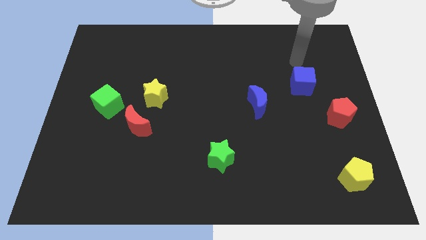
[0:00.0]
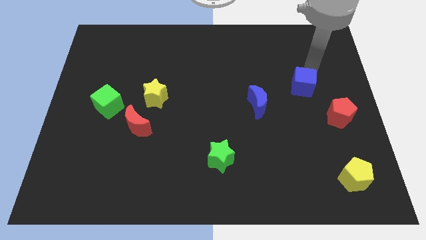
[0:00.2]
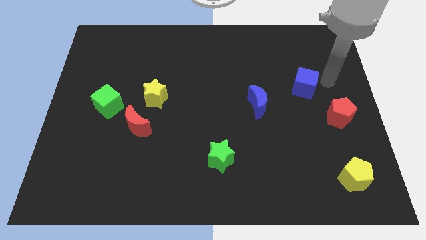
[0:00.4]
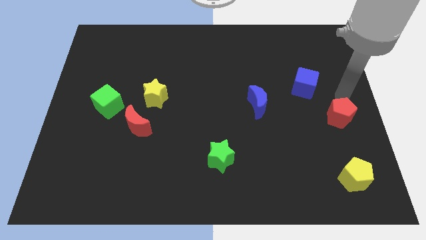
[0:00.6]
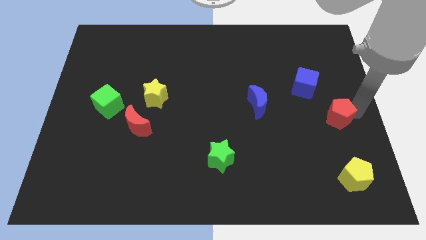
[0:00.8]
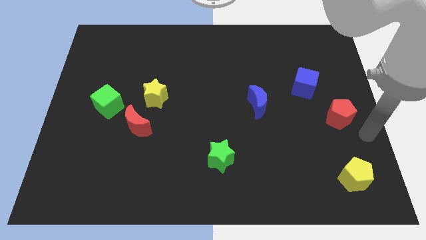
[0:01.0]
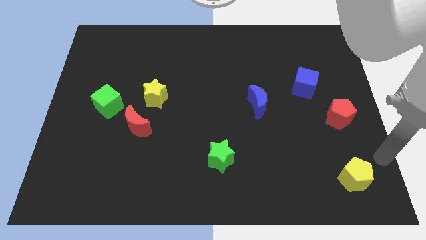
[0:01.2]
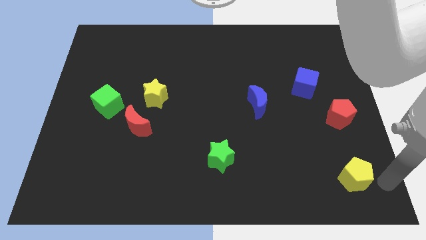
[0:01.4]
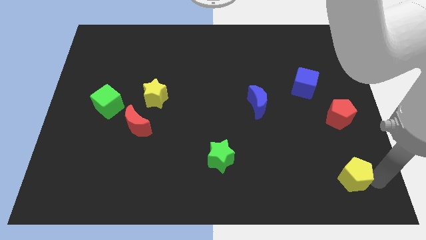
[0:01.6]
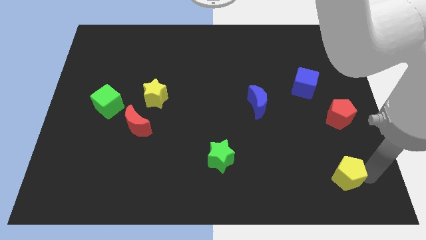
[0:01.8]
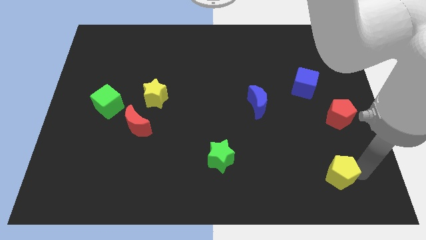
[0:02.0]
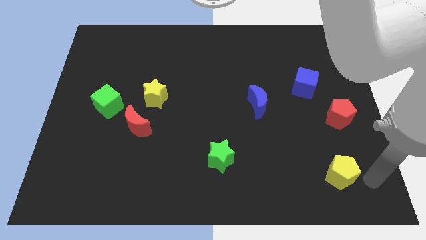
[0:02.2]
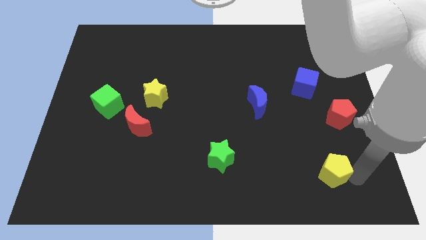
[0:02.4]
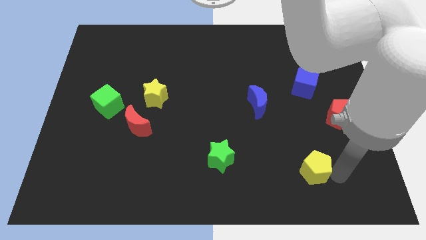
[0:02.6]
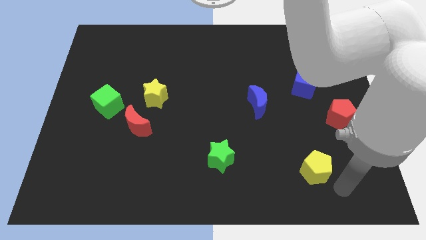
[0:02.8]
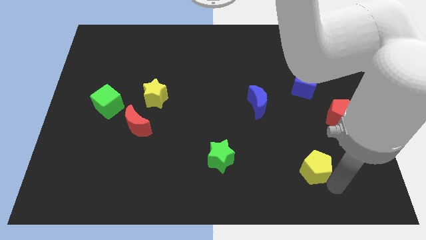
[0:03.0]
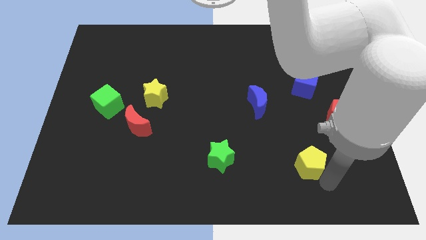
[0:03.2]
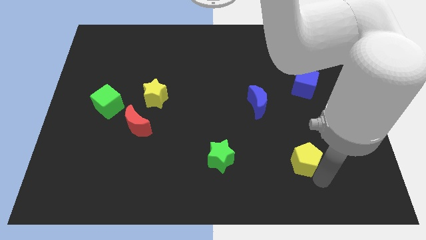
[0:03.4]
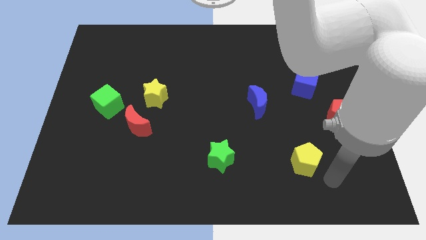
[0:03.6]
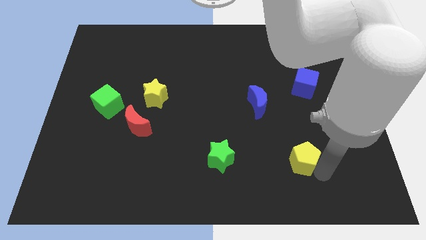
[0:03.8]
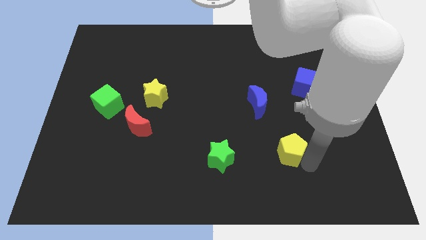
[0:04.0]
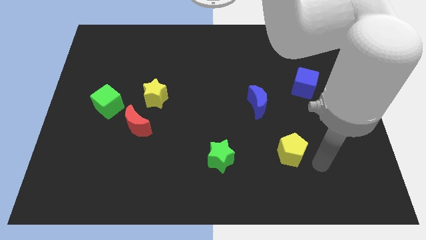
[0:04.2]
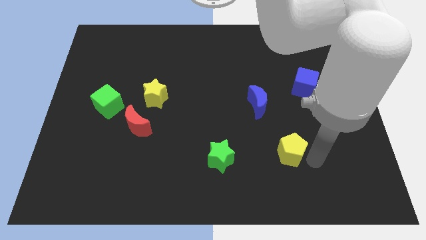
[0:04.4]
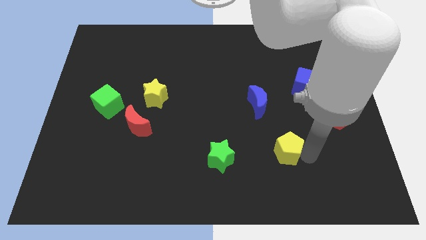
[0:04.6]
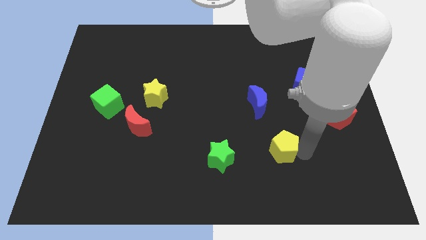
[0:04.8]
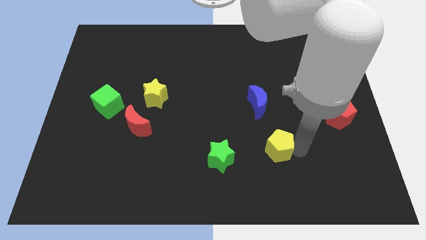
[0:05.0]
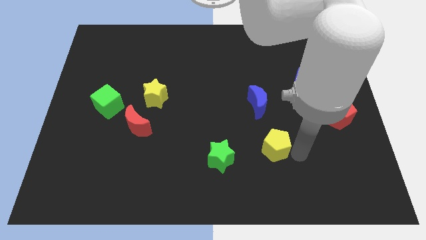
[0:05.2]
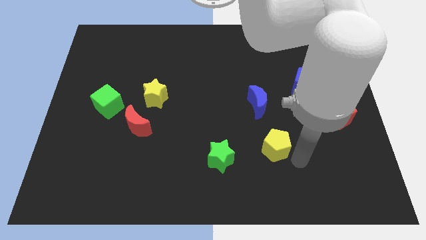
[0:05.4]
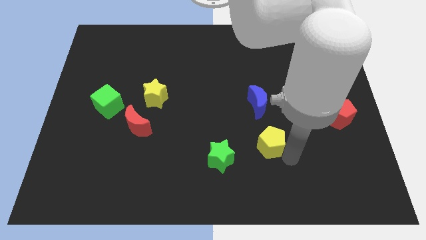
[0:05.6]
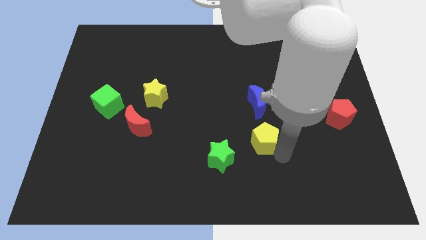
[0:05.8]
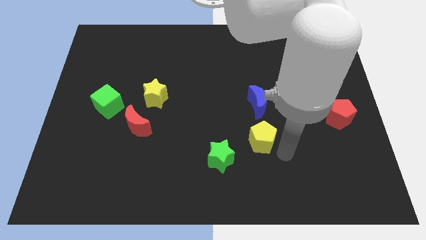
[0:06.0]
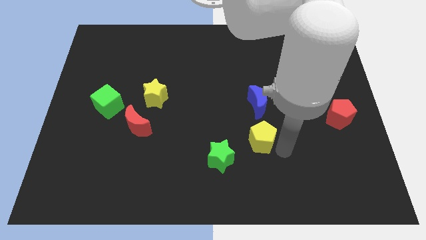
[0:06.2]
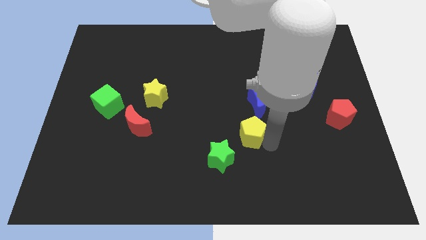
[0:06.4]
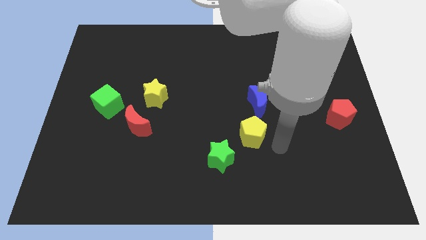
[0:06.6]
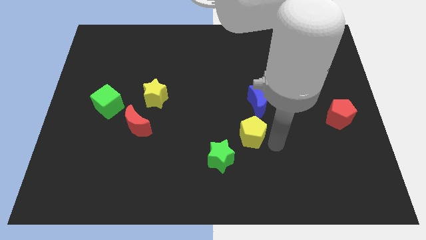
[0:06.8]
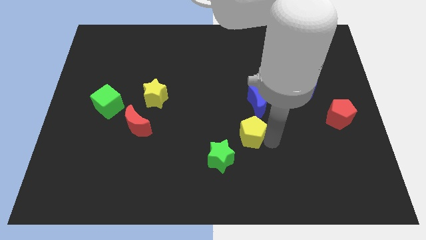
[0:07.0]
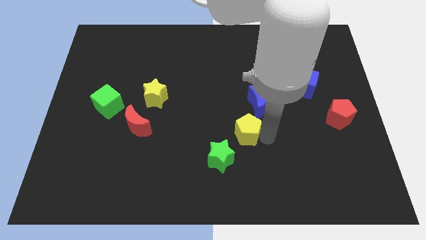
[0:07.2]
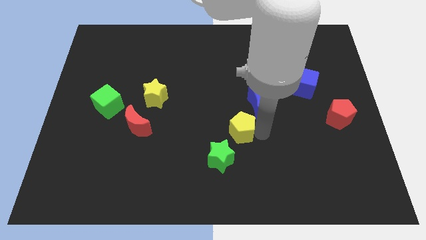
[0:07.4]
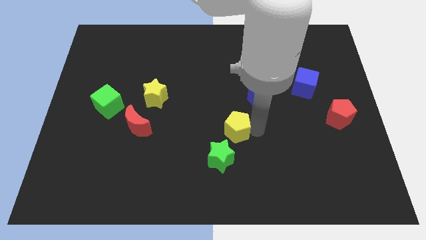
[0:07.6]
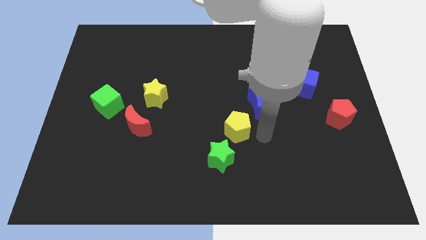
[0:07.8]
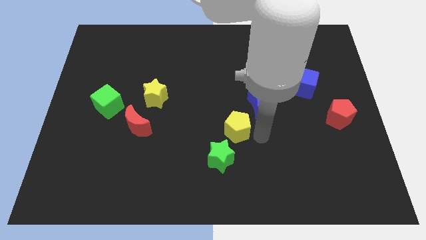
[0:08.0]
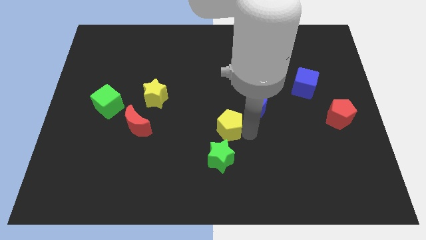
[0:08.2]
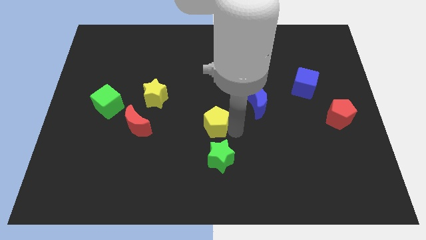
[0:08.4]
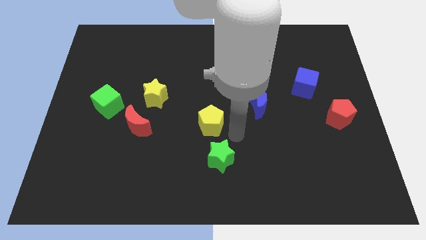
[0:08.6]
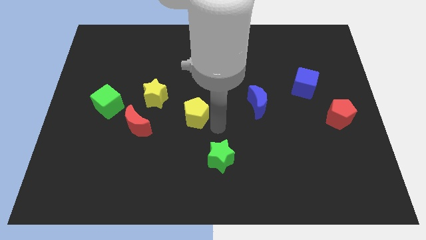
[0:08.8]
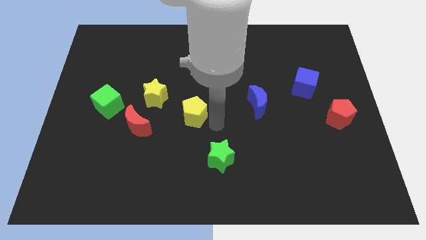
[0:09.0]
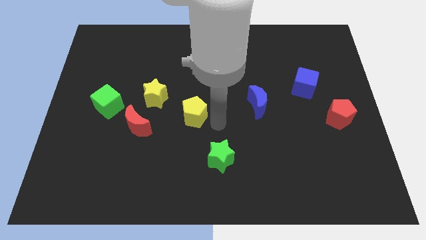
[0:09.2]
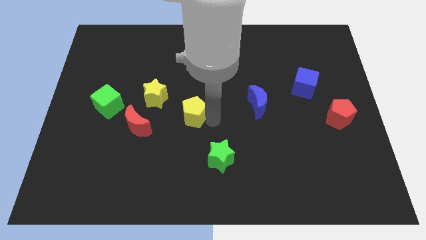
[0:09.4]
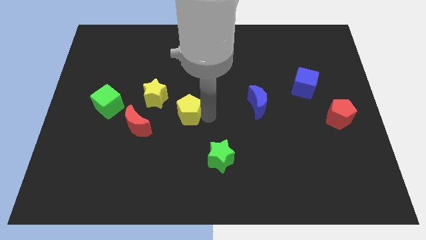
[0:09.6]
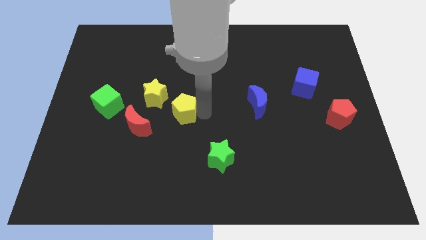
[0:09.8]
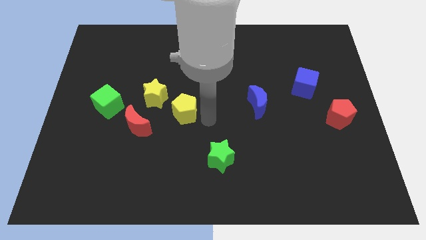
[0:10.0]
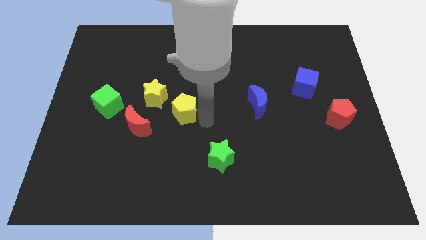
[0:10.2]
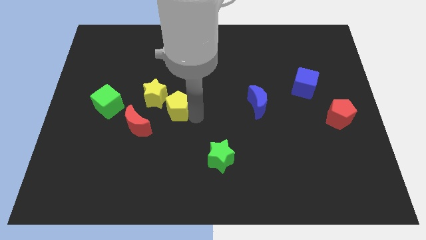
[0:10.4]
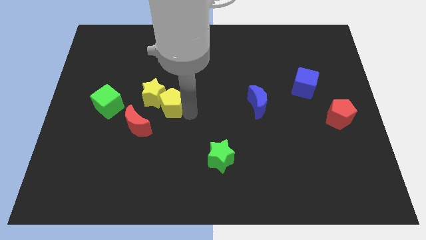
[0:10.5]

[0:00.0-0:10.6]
slide the yellow pentagon right of the green cube

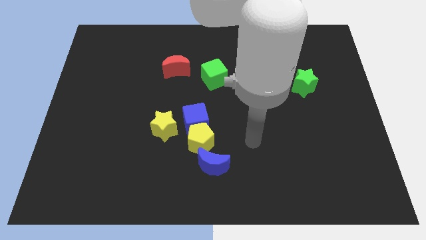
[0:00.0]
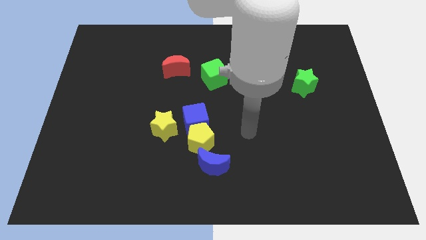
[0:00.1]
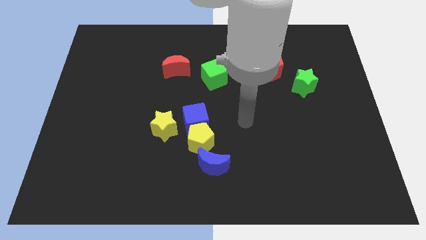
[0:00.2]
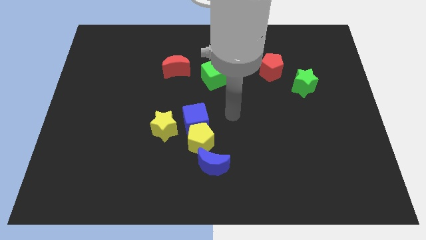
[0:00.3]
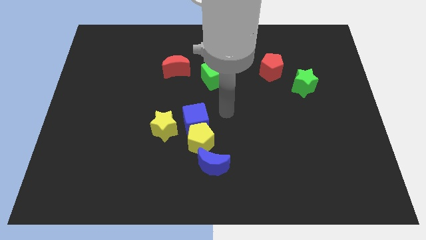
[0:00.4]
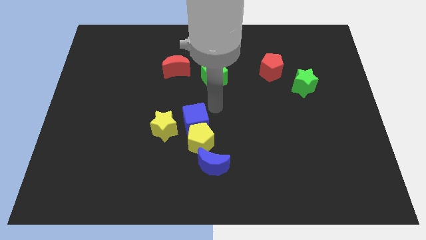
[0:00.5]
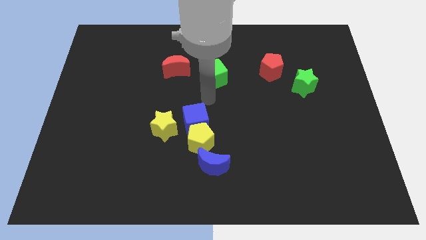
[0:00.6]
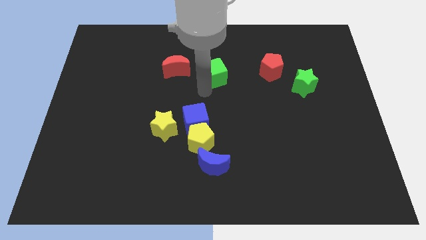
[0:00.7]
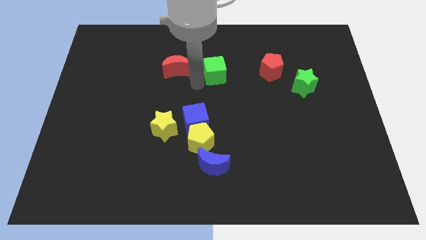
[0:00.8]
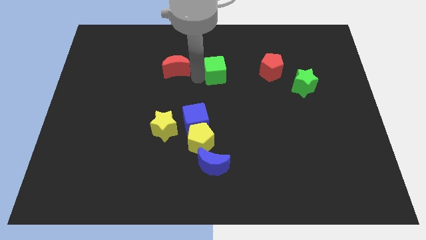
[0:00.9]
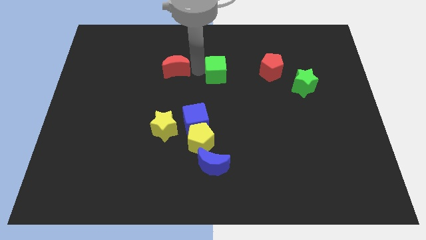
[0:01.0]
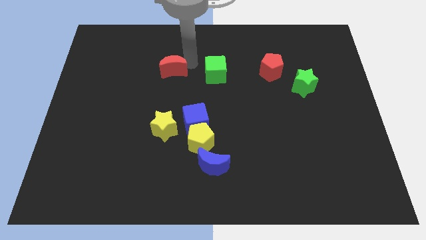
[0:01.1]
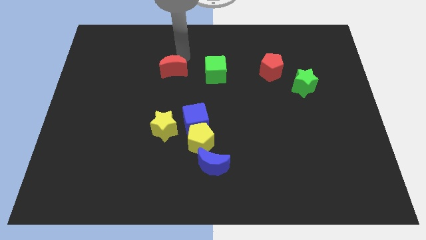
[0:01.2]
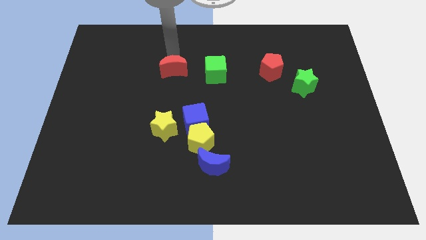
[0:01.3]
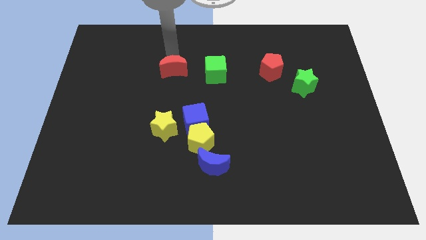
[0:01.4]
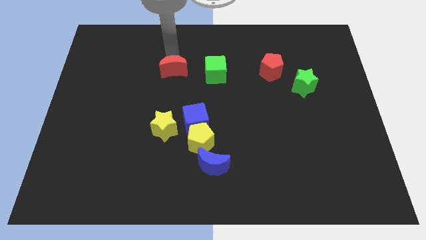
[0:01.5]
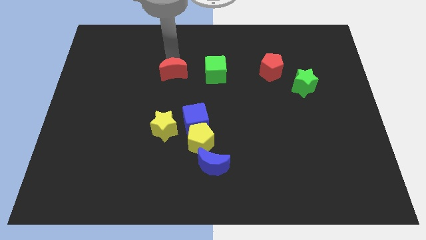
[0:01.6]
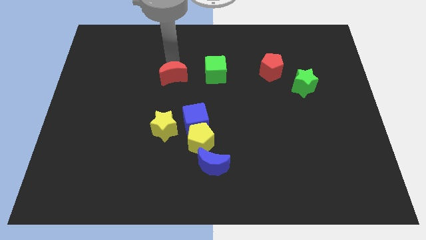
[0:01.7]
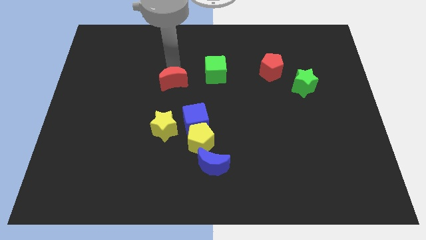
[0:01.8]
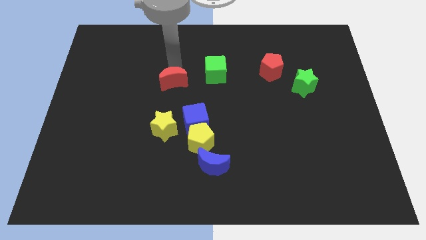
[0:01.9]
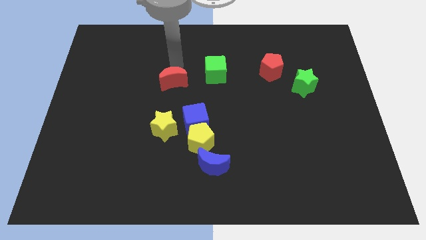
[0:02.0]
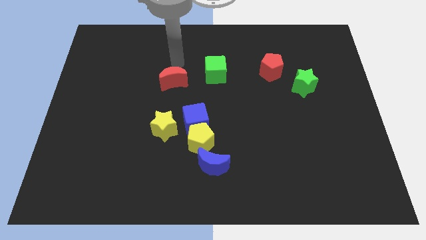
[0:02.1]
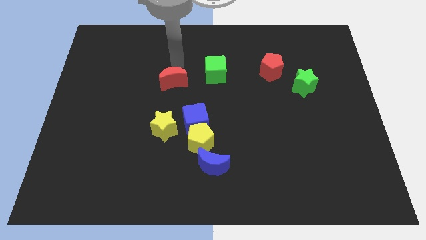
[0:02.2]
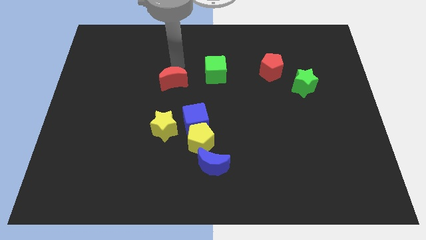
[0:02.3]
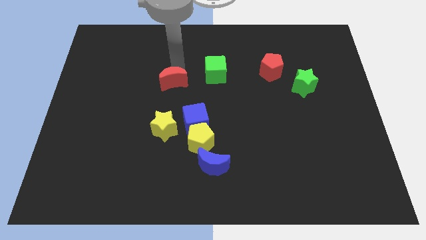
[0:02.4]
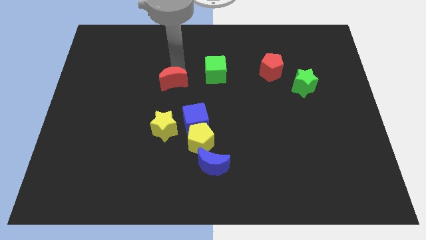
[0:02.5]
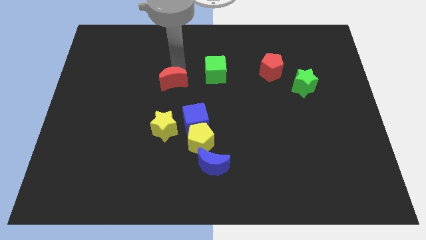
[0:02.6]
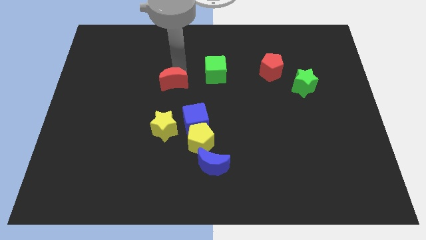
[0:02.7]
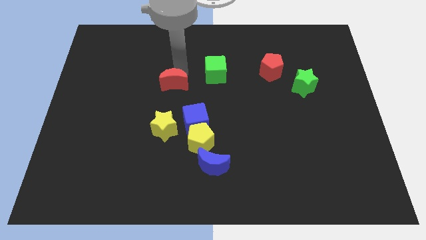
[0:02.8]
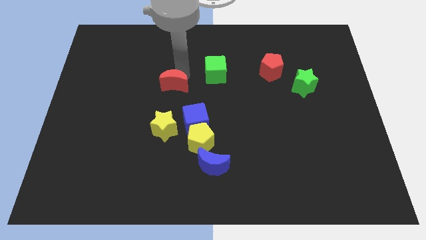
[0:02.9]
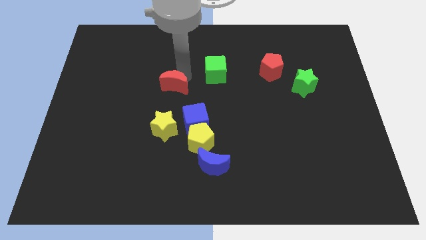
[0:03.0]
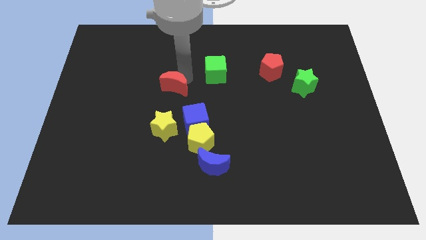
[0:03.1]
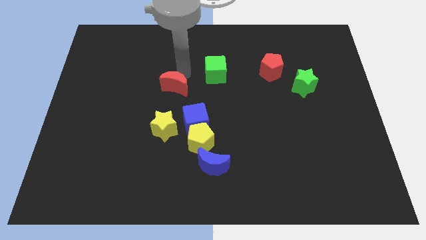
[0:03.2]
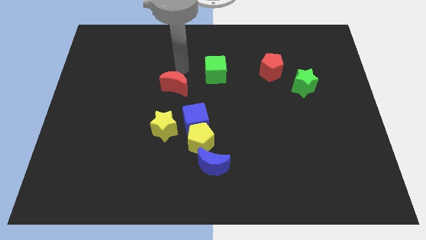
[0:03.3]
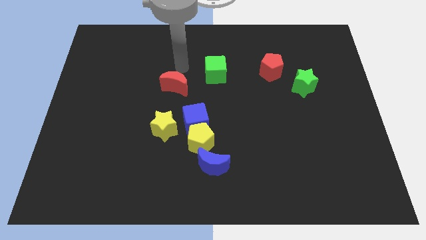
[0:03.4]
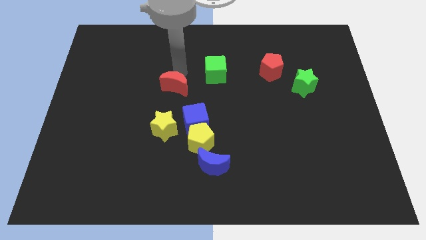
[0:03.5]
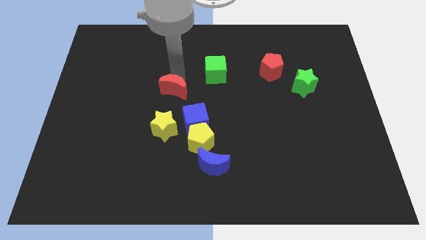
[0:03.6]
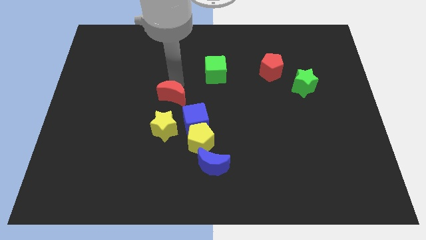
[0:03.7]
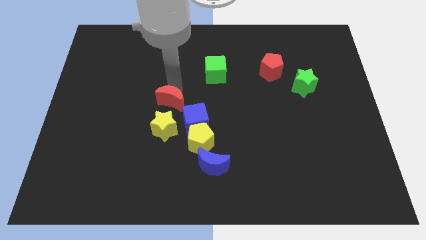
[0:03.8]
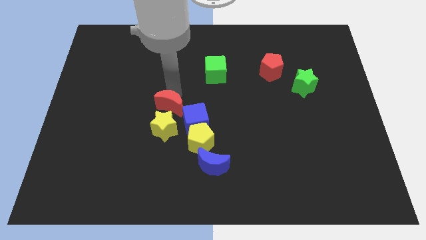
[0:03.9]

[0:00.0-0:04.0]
put the red moon diagonally up and to the left of the yellow pentagon
